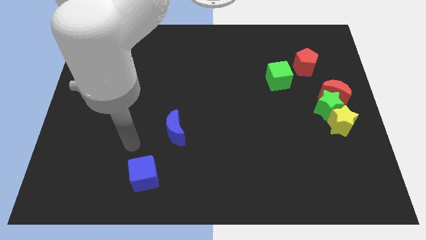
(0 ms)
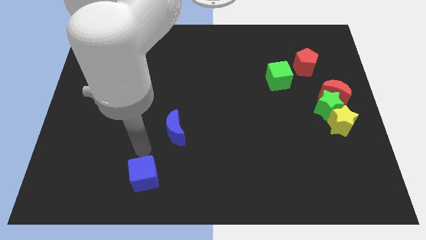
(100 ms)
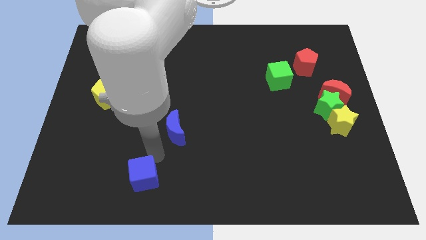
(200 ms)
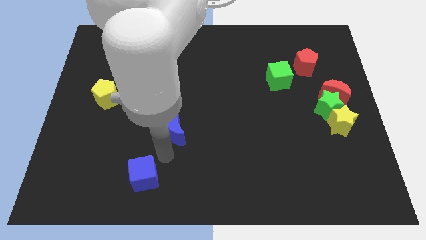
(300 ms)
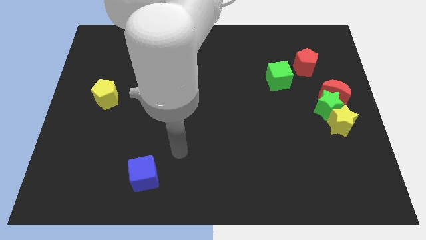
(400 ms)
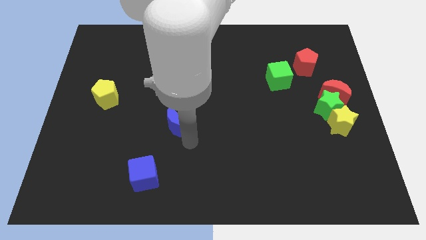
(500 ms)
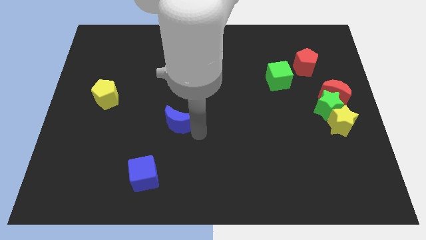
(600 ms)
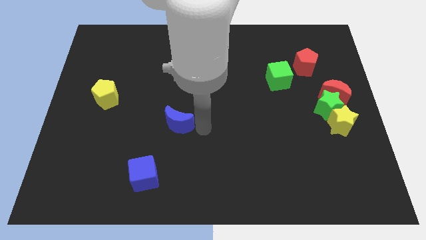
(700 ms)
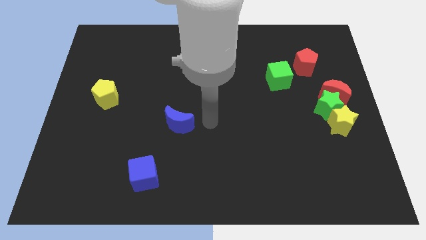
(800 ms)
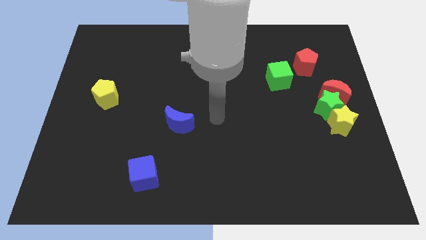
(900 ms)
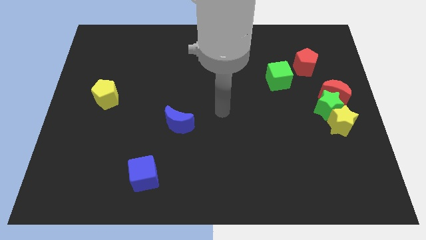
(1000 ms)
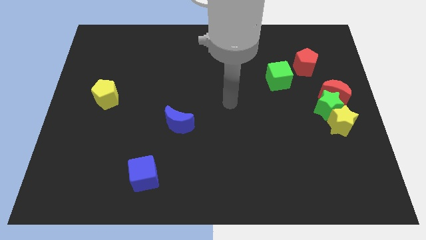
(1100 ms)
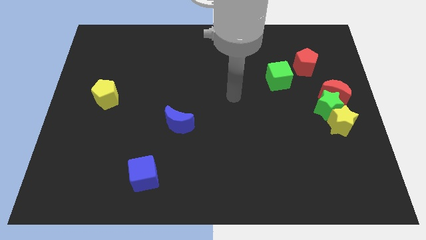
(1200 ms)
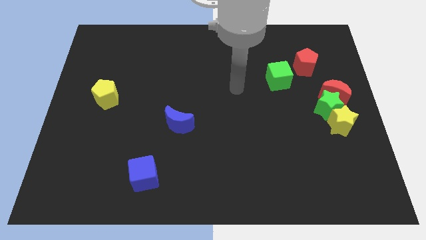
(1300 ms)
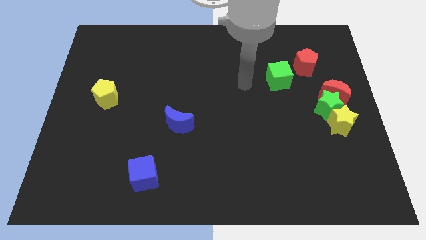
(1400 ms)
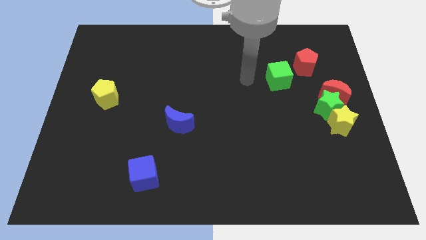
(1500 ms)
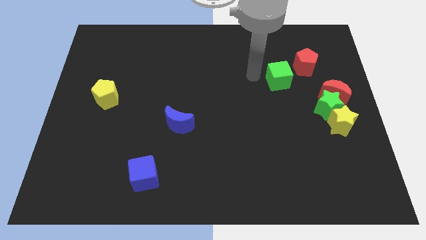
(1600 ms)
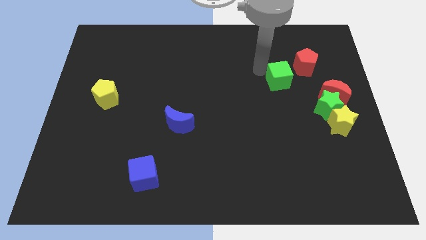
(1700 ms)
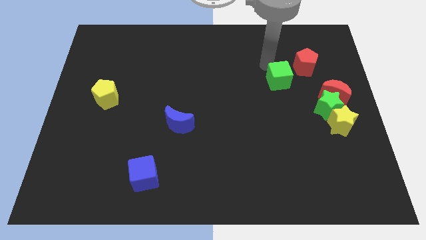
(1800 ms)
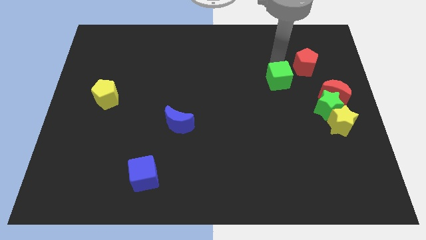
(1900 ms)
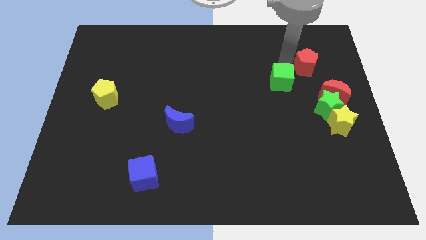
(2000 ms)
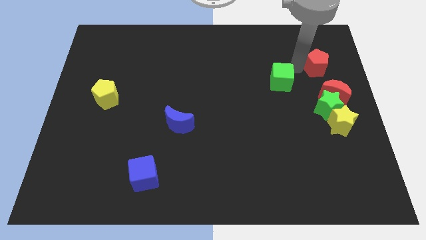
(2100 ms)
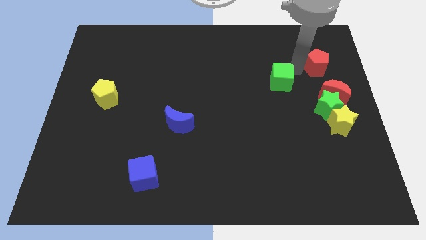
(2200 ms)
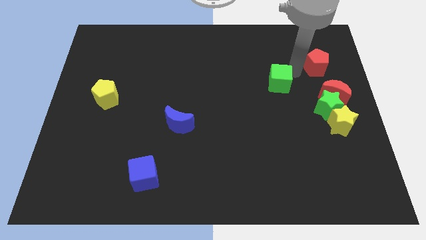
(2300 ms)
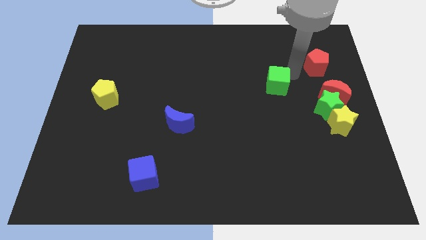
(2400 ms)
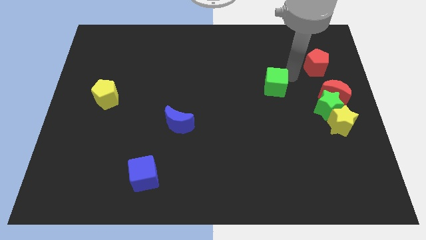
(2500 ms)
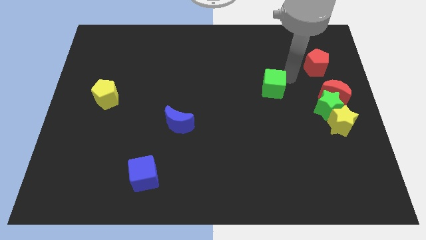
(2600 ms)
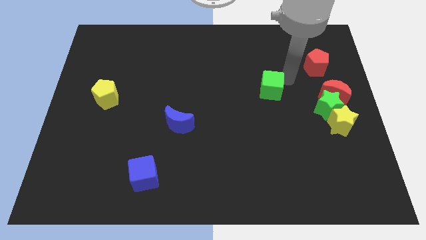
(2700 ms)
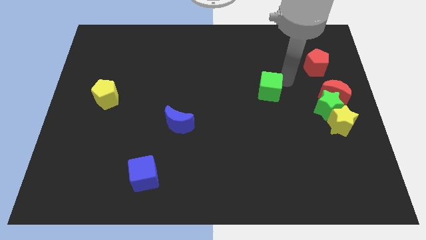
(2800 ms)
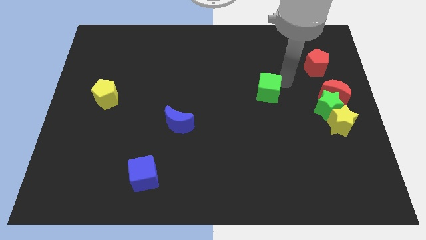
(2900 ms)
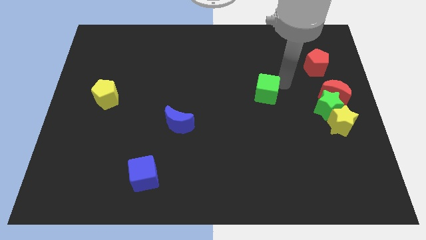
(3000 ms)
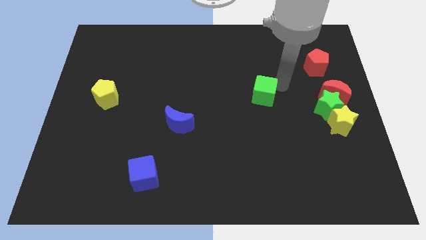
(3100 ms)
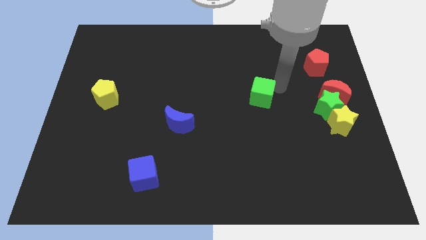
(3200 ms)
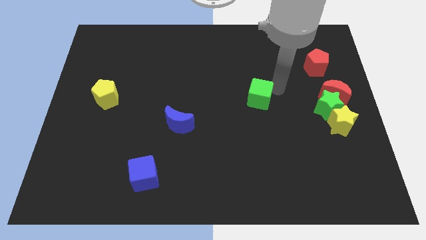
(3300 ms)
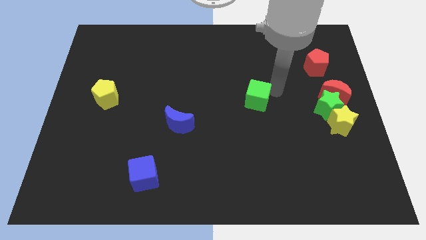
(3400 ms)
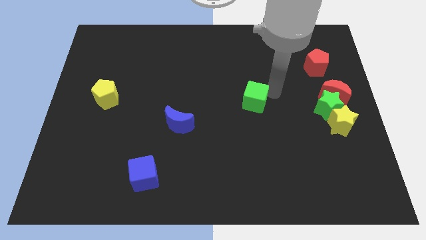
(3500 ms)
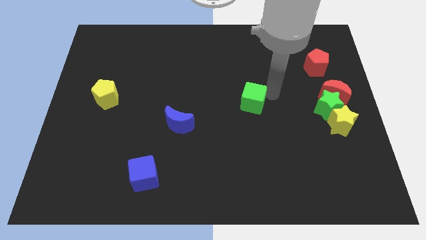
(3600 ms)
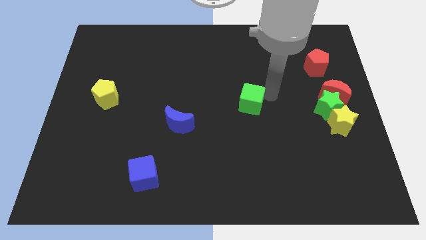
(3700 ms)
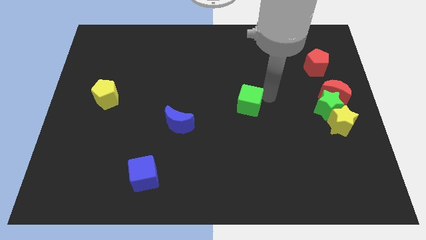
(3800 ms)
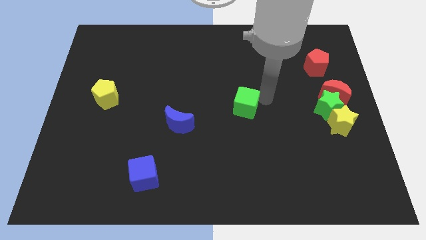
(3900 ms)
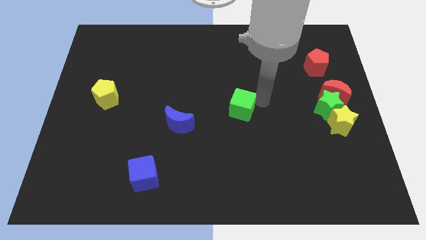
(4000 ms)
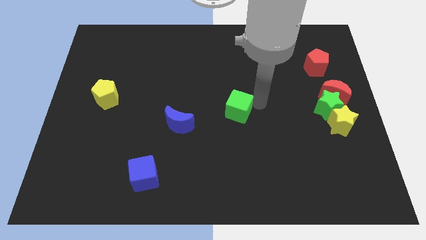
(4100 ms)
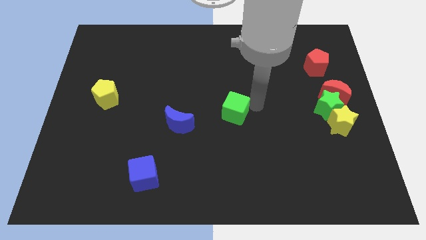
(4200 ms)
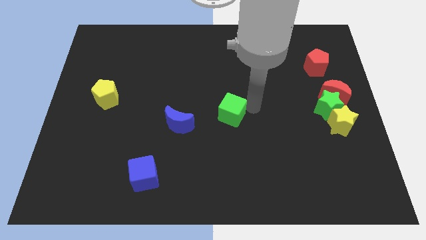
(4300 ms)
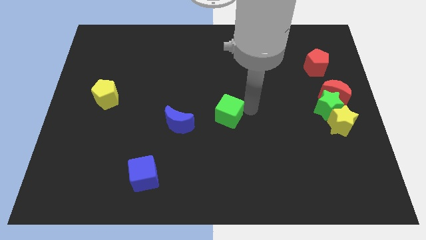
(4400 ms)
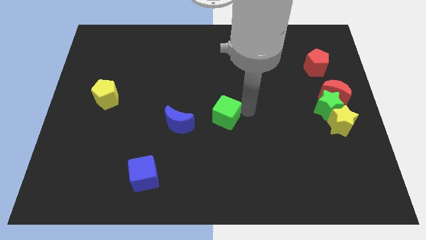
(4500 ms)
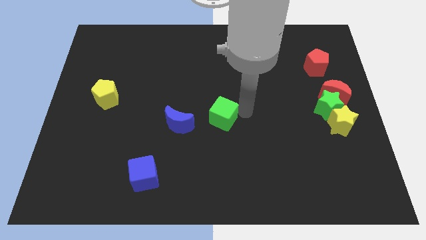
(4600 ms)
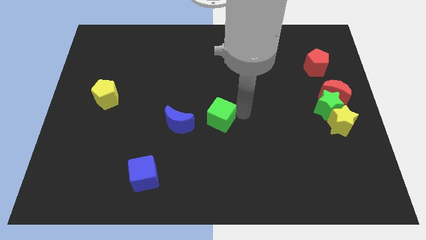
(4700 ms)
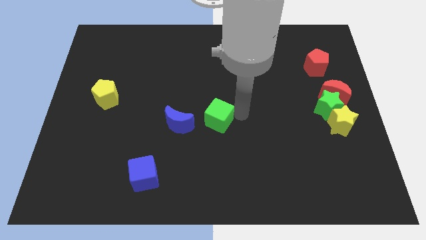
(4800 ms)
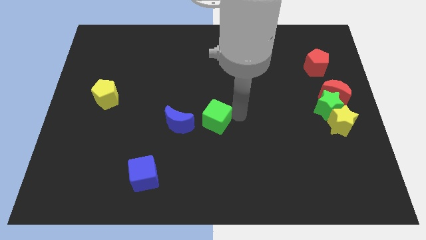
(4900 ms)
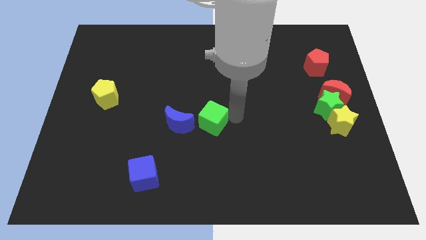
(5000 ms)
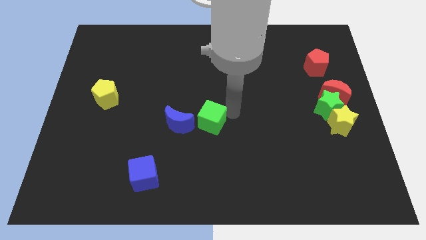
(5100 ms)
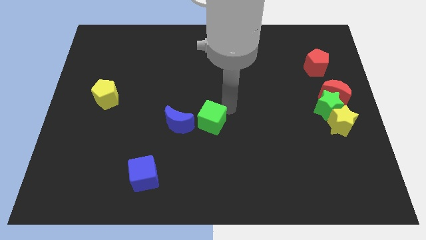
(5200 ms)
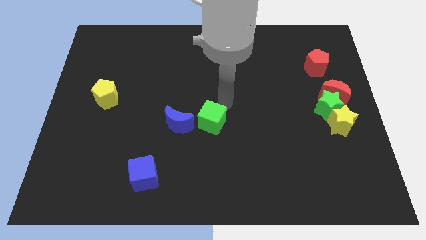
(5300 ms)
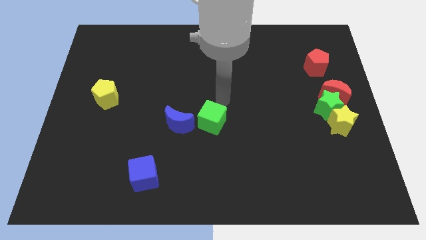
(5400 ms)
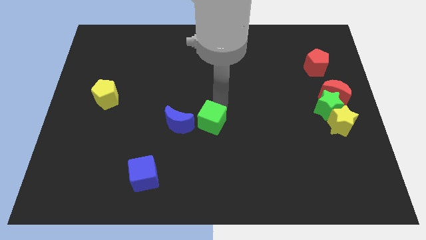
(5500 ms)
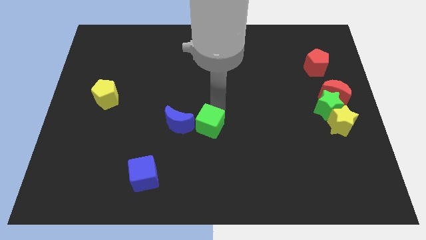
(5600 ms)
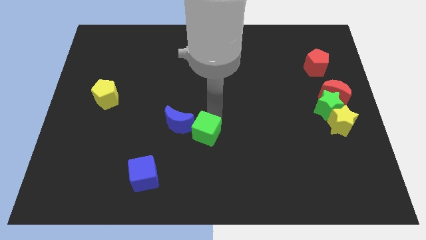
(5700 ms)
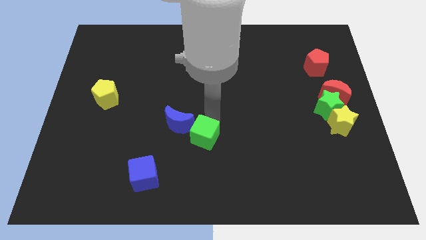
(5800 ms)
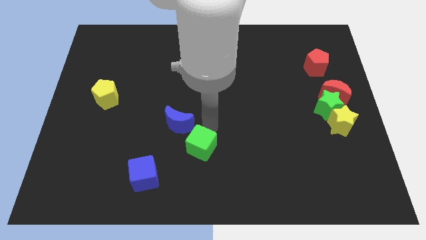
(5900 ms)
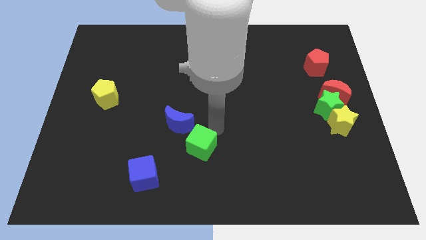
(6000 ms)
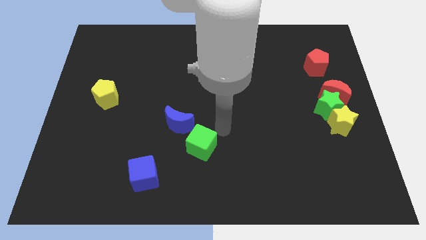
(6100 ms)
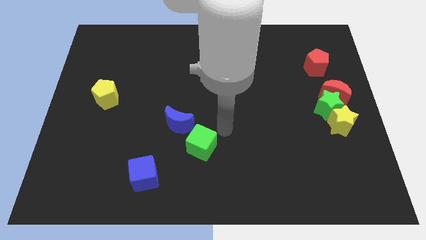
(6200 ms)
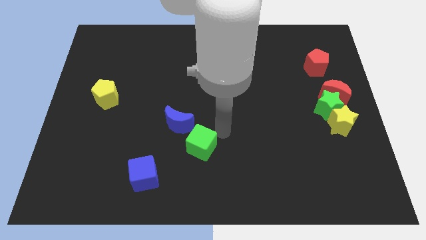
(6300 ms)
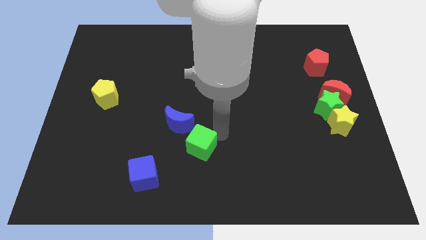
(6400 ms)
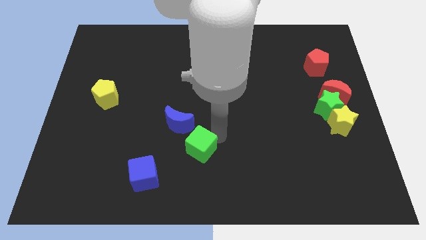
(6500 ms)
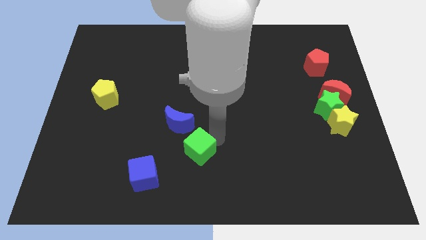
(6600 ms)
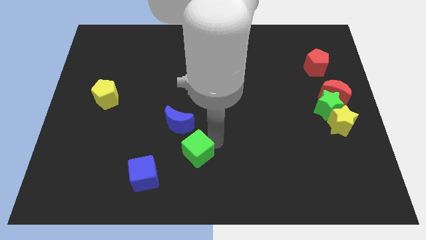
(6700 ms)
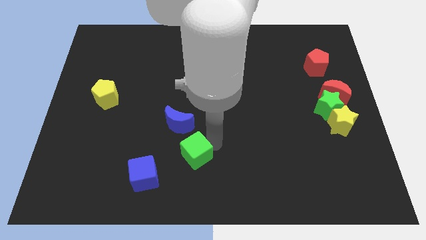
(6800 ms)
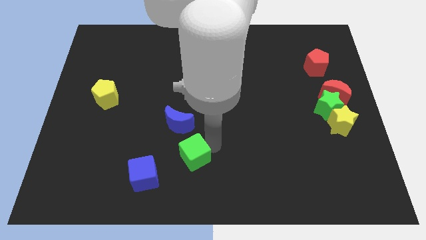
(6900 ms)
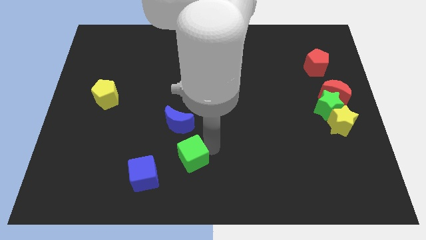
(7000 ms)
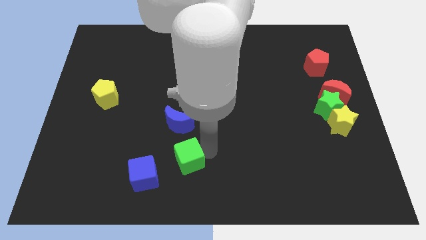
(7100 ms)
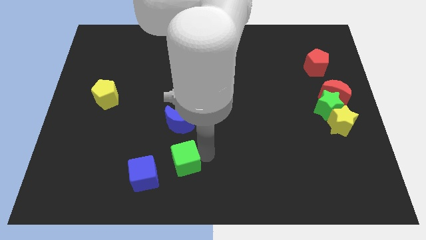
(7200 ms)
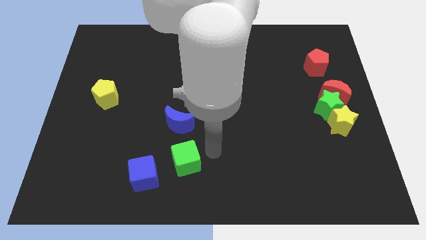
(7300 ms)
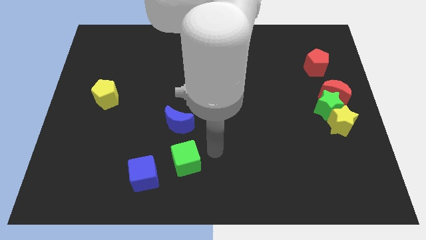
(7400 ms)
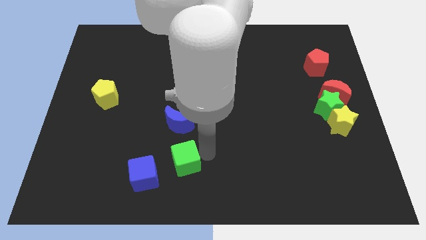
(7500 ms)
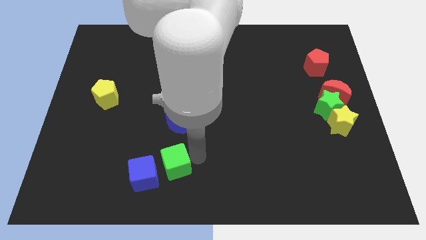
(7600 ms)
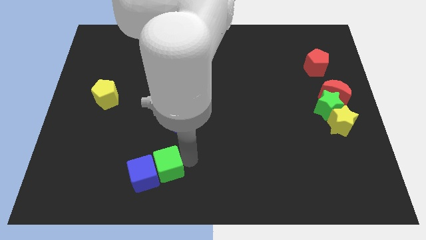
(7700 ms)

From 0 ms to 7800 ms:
put the green cube to the blue cube
